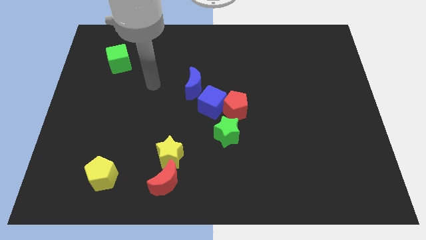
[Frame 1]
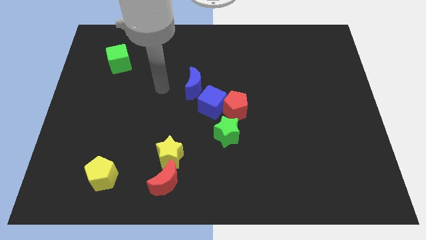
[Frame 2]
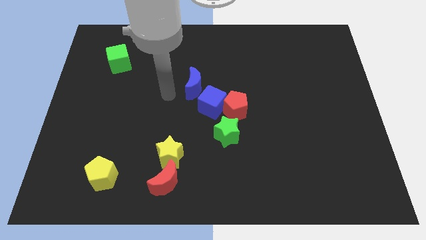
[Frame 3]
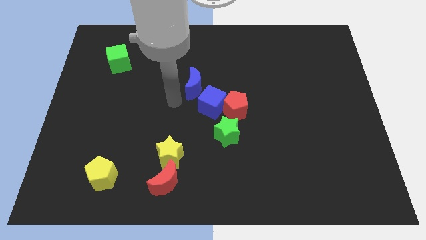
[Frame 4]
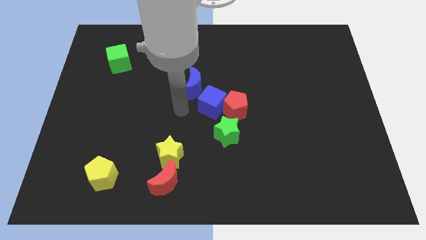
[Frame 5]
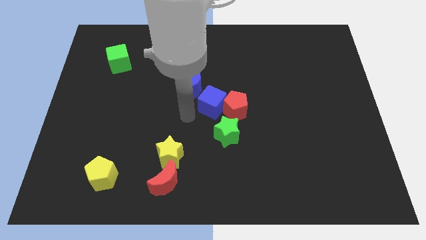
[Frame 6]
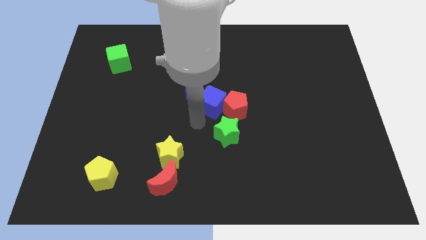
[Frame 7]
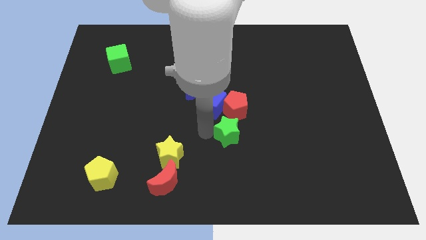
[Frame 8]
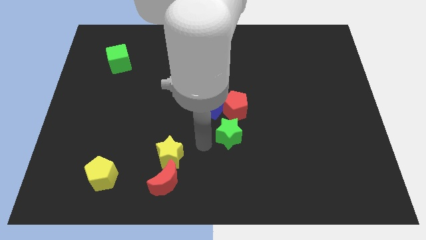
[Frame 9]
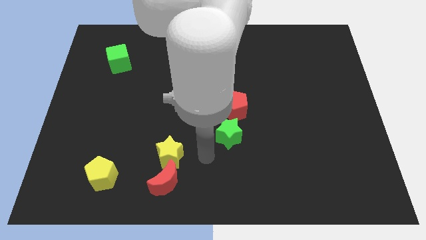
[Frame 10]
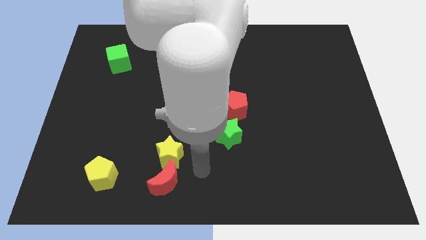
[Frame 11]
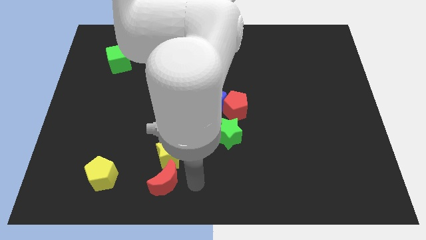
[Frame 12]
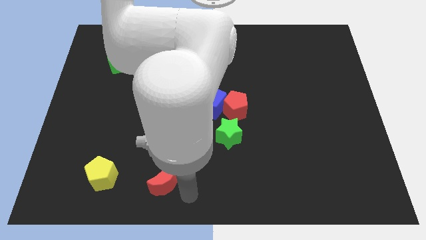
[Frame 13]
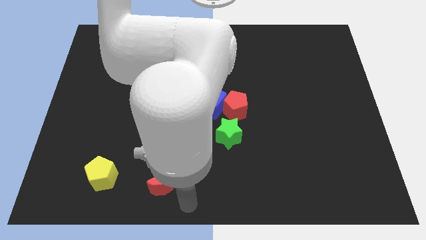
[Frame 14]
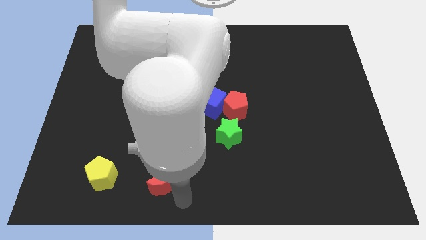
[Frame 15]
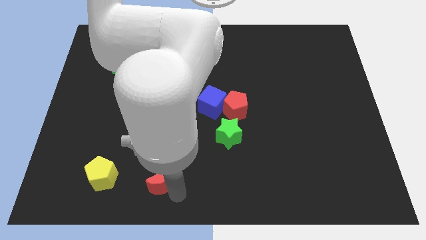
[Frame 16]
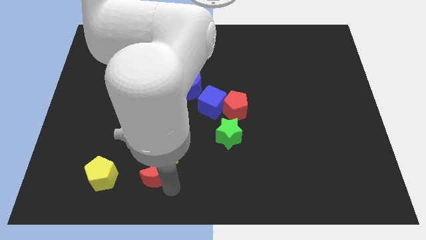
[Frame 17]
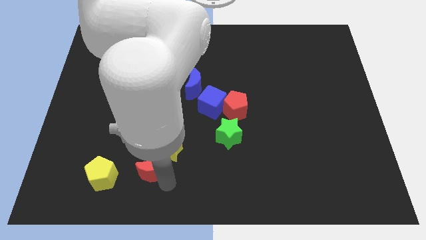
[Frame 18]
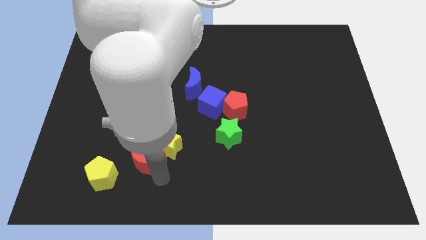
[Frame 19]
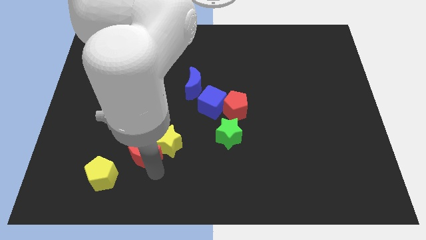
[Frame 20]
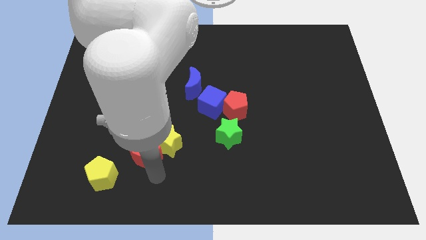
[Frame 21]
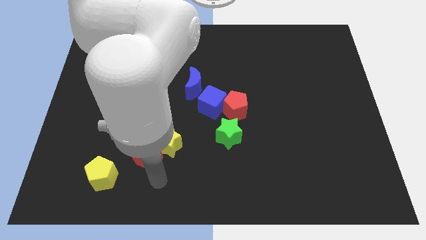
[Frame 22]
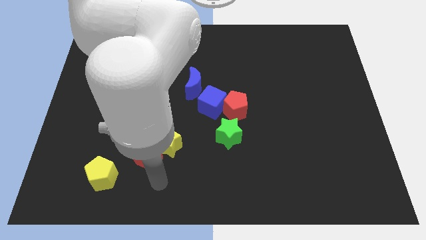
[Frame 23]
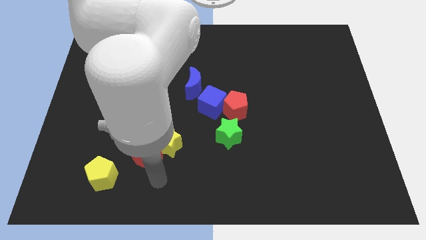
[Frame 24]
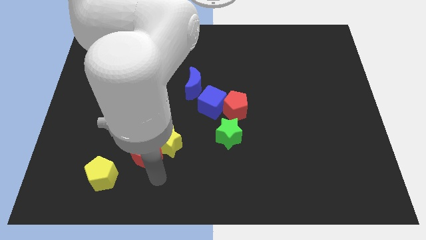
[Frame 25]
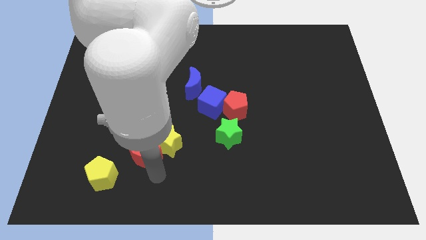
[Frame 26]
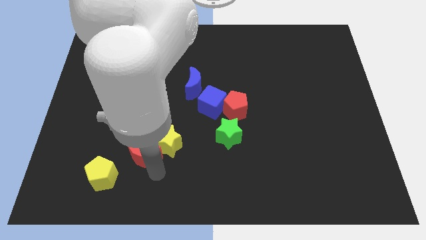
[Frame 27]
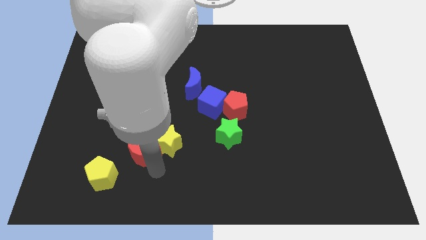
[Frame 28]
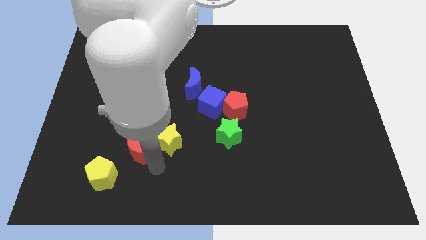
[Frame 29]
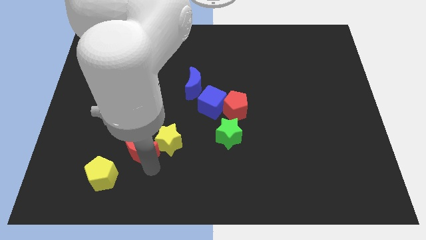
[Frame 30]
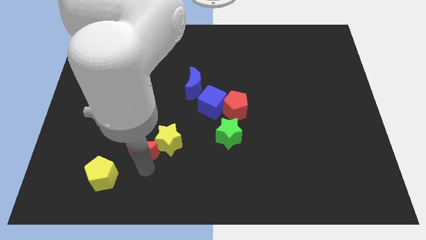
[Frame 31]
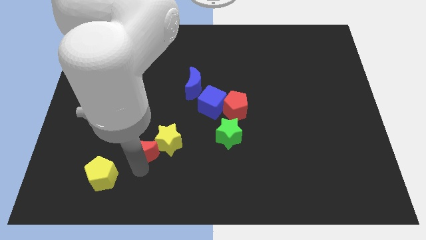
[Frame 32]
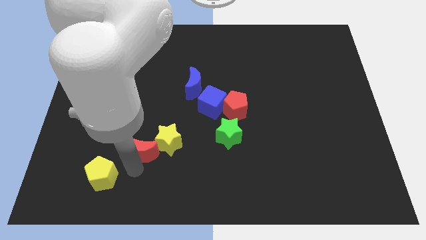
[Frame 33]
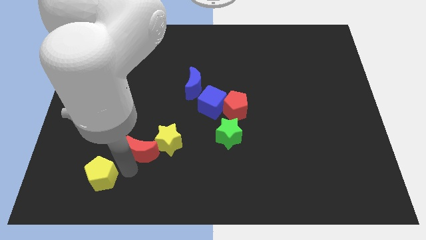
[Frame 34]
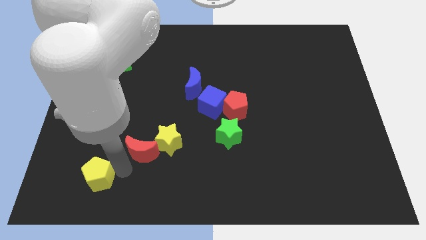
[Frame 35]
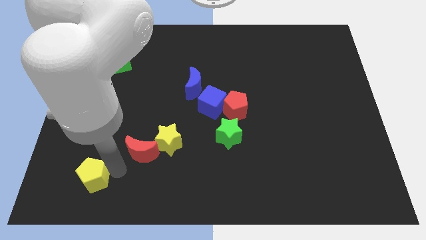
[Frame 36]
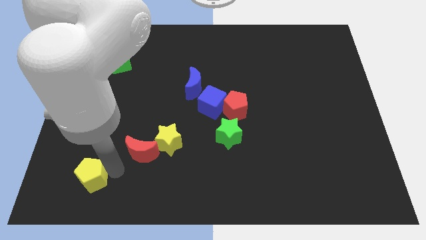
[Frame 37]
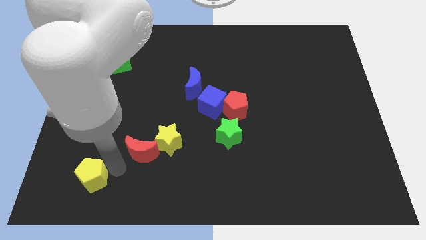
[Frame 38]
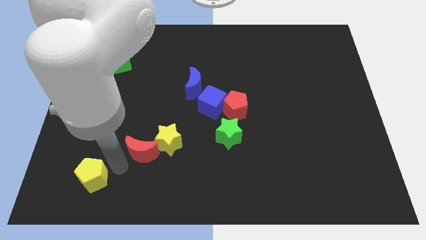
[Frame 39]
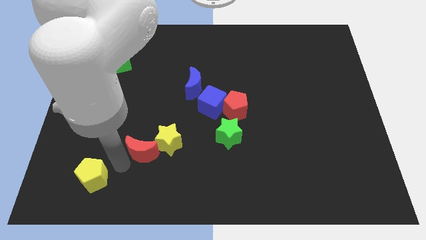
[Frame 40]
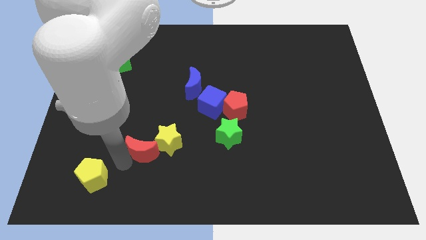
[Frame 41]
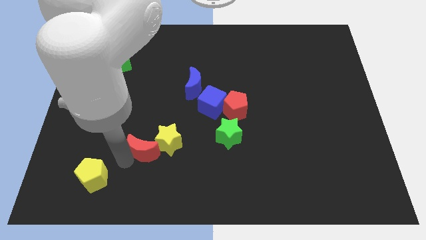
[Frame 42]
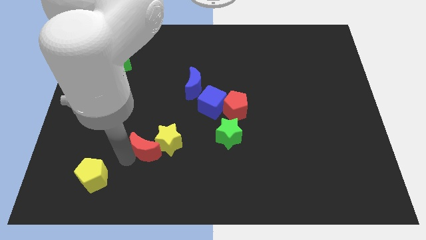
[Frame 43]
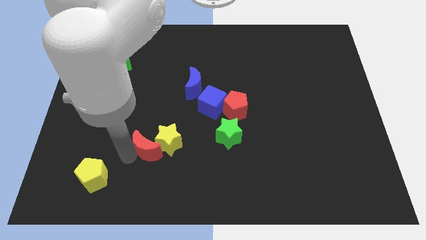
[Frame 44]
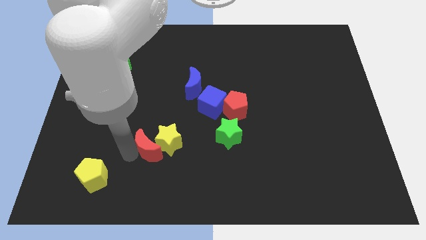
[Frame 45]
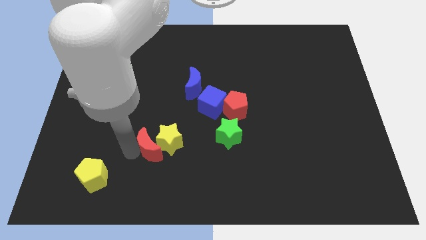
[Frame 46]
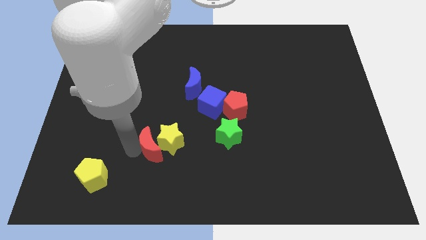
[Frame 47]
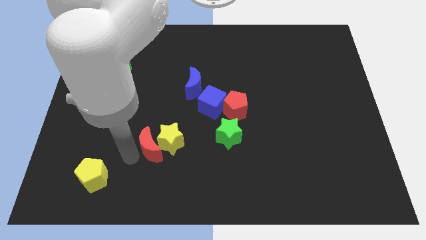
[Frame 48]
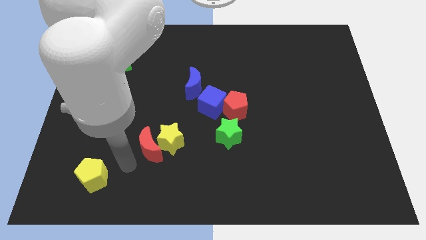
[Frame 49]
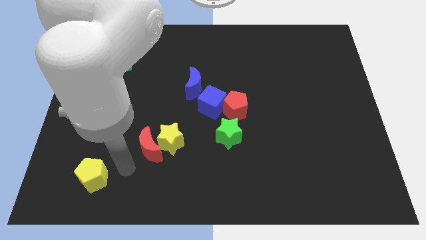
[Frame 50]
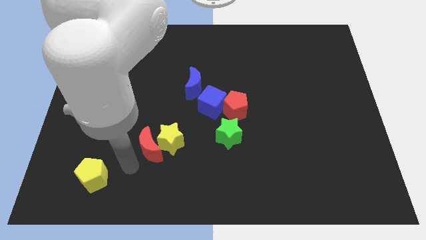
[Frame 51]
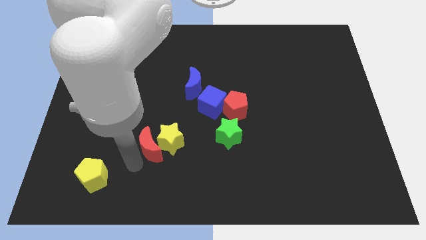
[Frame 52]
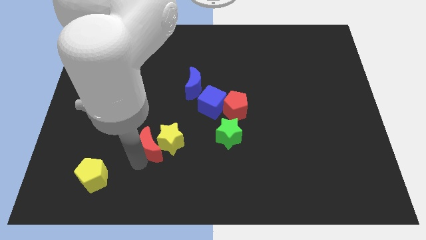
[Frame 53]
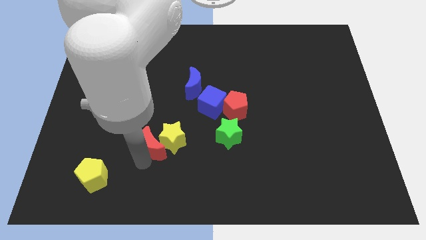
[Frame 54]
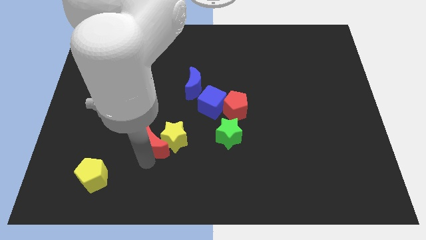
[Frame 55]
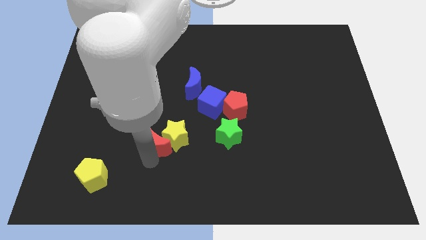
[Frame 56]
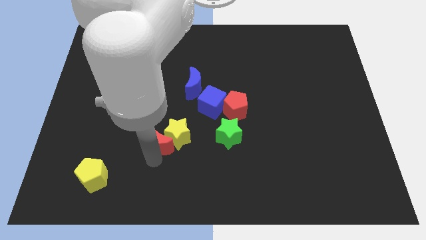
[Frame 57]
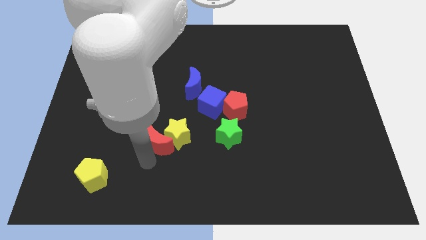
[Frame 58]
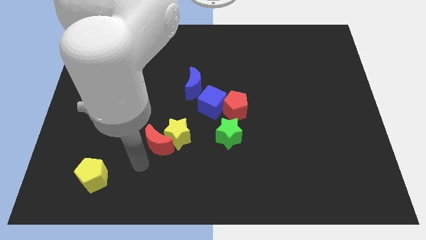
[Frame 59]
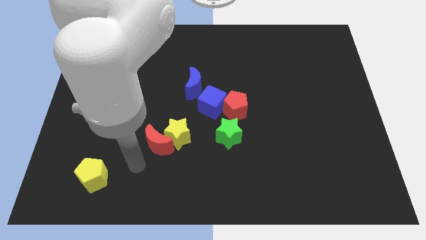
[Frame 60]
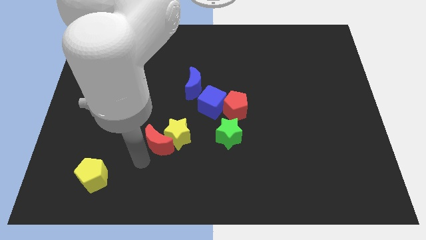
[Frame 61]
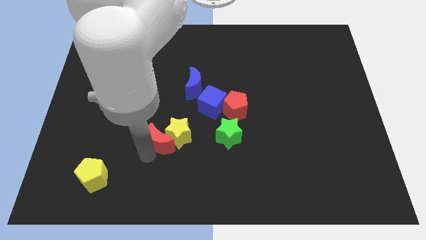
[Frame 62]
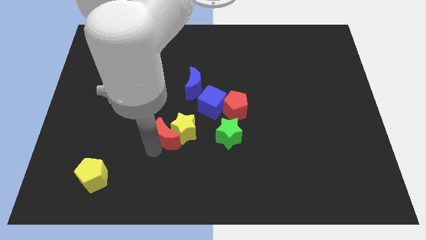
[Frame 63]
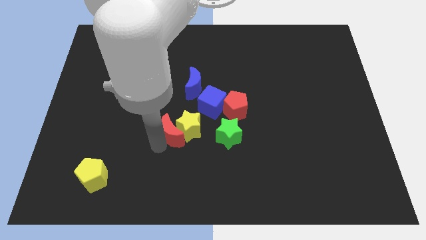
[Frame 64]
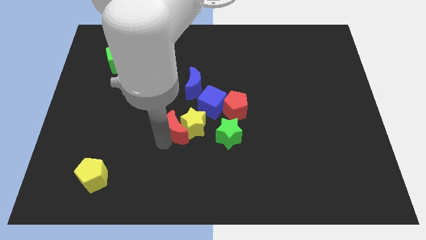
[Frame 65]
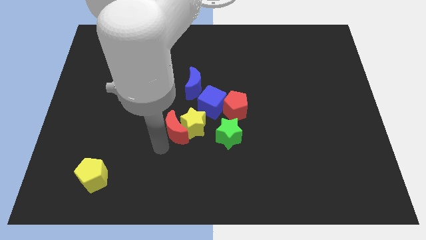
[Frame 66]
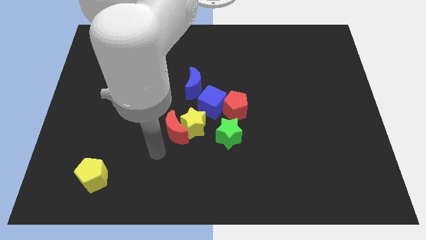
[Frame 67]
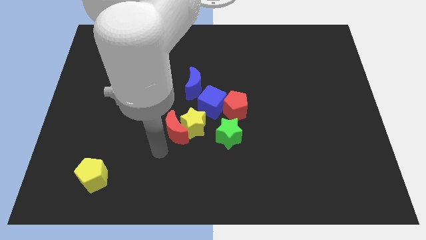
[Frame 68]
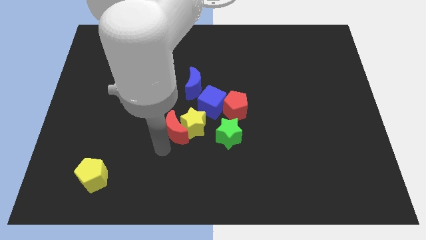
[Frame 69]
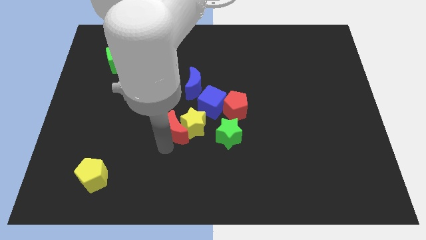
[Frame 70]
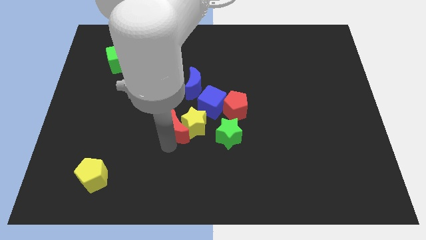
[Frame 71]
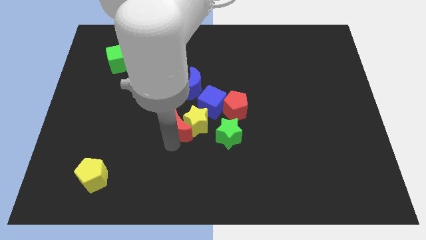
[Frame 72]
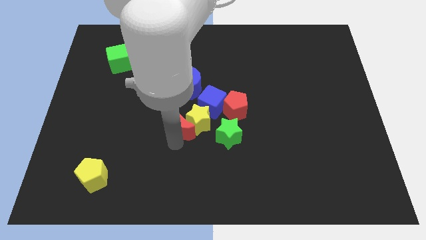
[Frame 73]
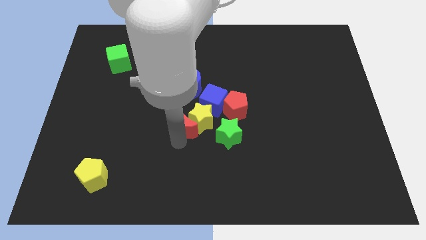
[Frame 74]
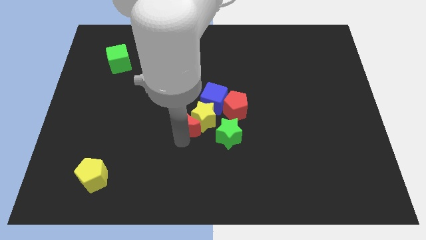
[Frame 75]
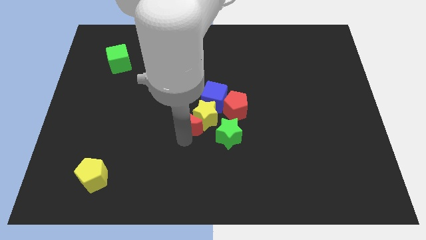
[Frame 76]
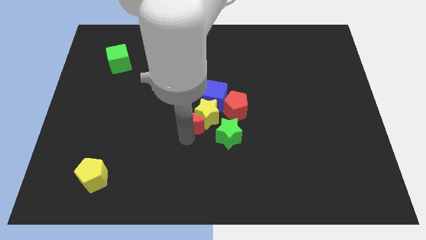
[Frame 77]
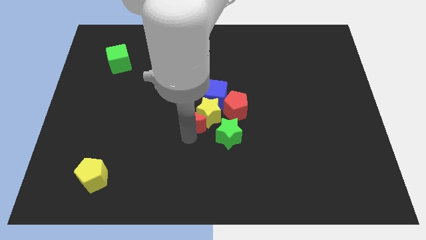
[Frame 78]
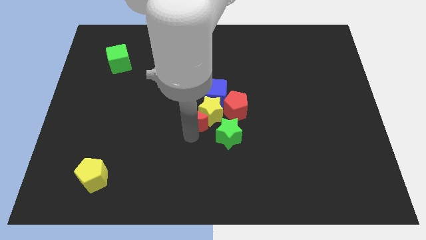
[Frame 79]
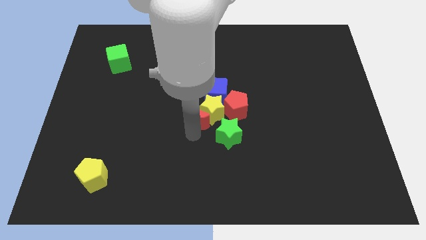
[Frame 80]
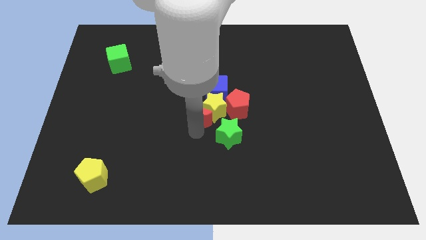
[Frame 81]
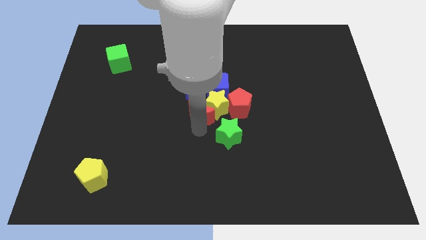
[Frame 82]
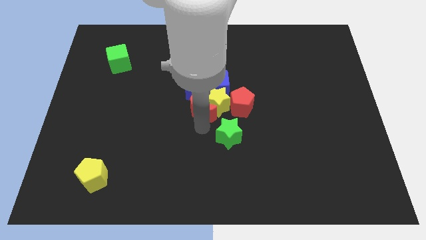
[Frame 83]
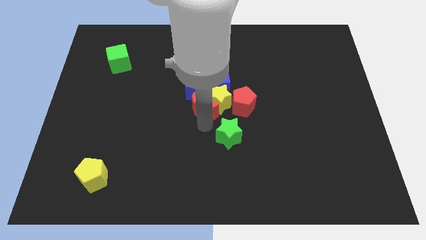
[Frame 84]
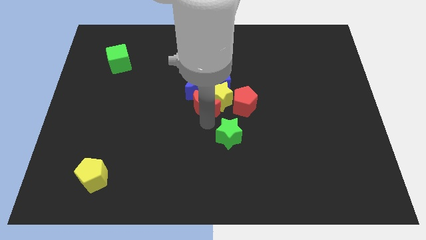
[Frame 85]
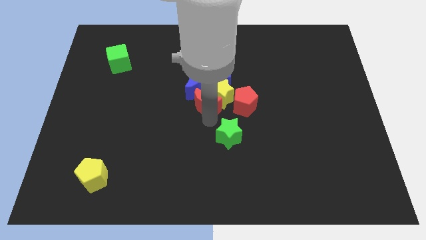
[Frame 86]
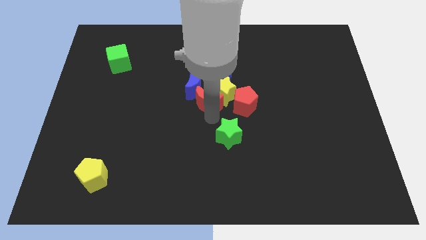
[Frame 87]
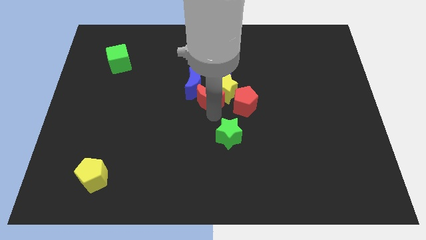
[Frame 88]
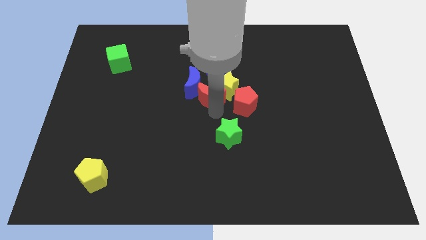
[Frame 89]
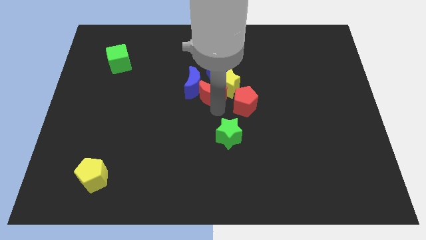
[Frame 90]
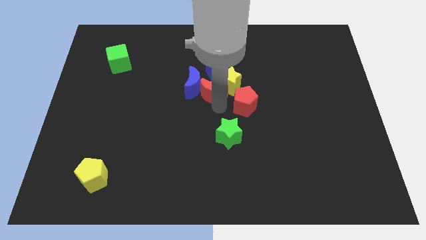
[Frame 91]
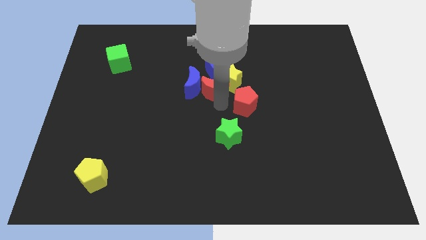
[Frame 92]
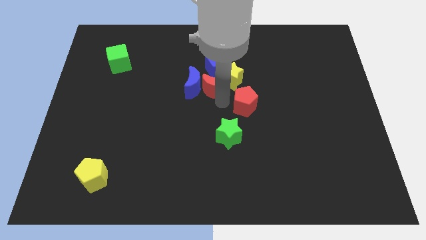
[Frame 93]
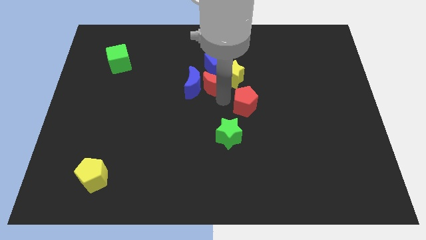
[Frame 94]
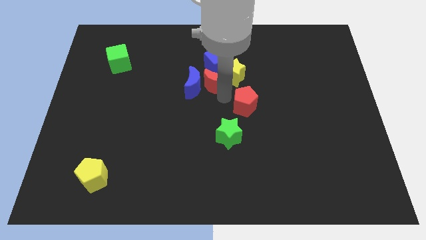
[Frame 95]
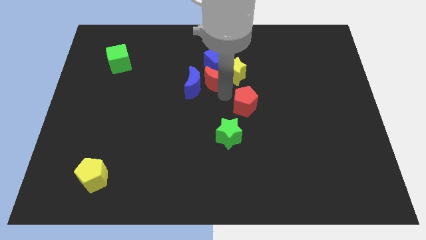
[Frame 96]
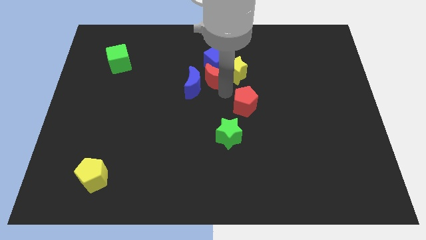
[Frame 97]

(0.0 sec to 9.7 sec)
slide the red moon next to the blue cube
